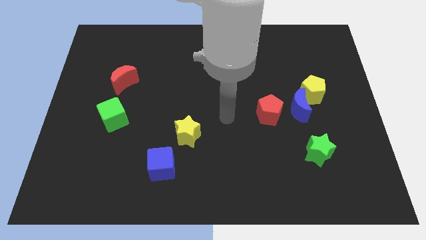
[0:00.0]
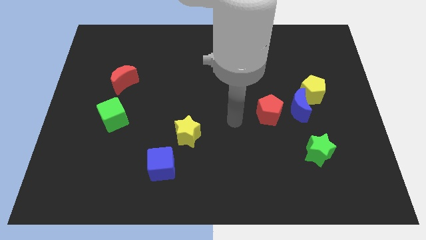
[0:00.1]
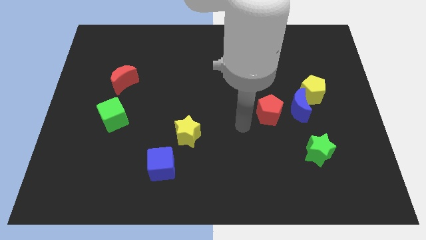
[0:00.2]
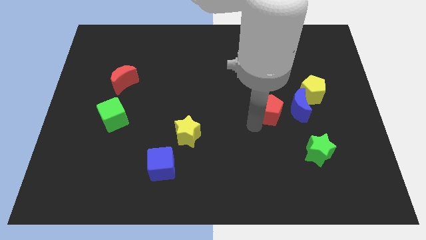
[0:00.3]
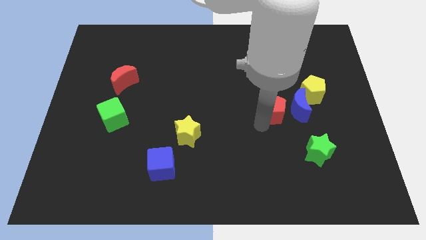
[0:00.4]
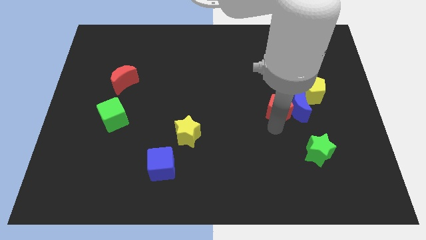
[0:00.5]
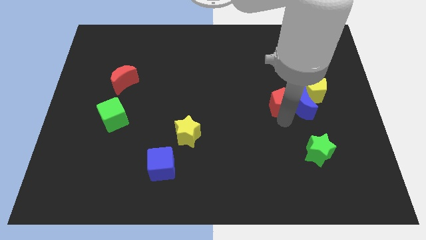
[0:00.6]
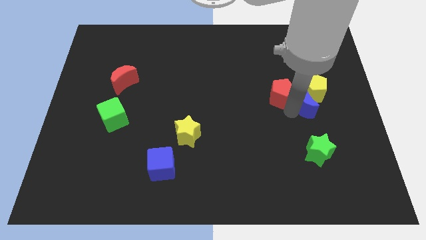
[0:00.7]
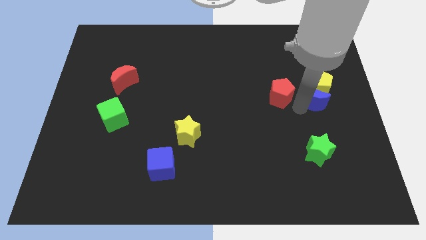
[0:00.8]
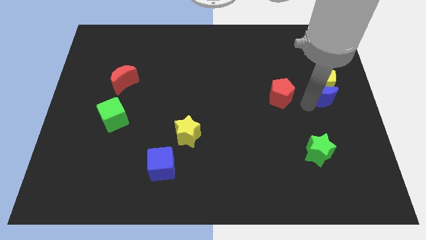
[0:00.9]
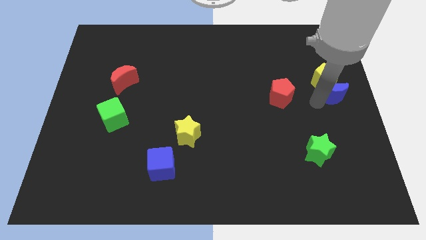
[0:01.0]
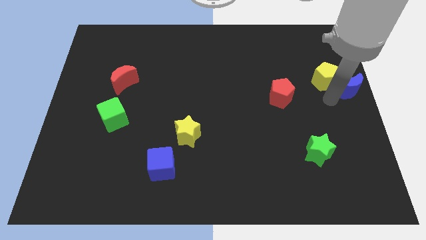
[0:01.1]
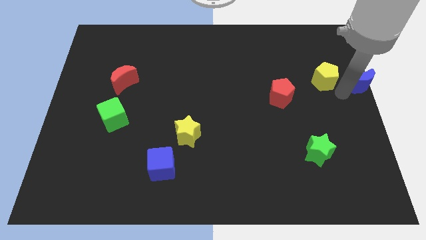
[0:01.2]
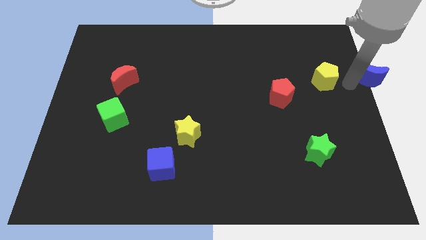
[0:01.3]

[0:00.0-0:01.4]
separate the yellow pentagon from the blue moon

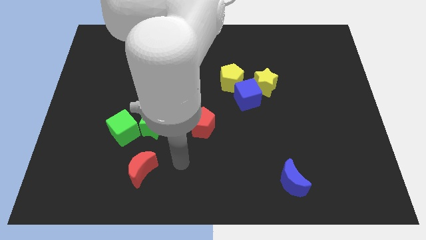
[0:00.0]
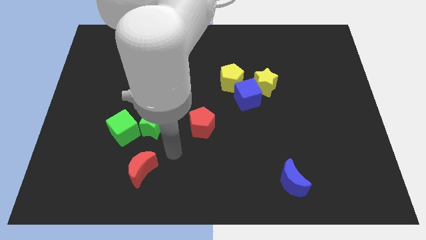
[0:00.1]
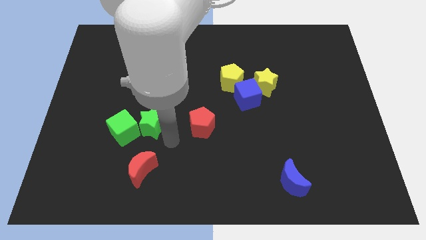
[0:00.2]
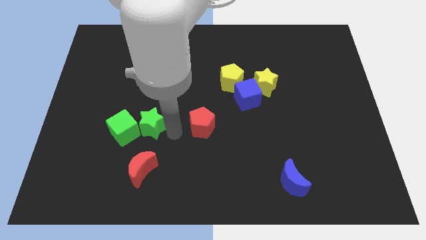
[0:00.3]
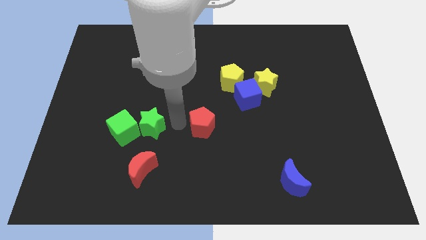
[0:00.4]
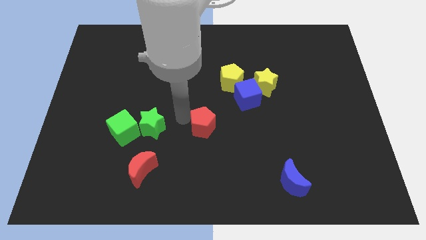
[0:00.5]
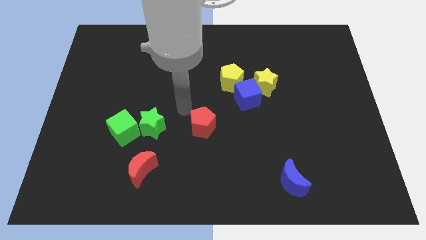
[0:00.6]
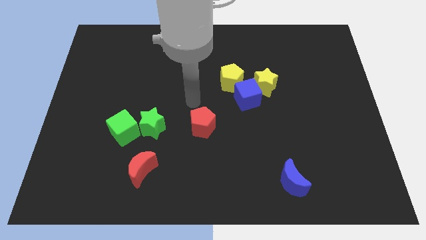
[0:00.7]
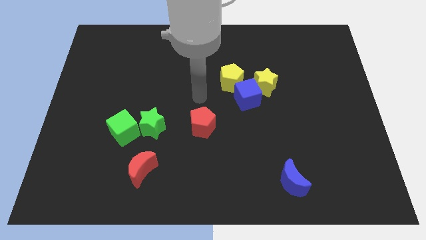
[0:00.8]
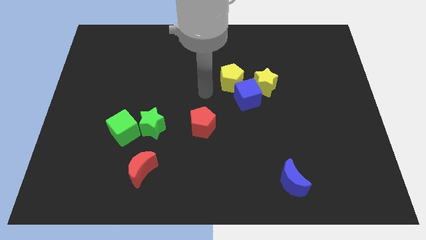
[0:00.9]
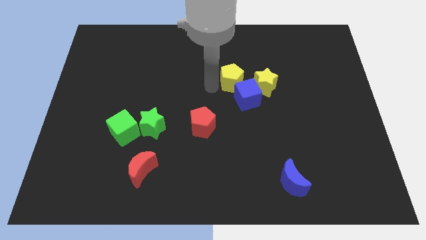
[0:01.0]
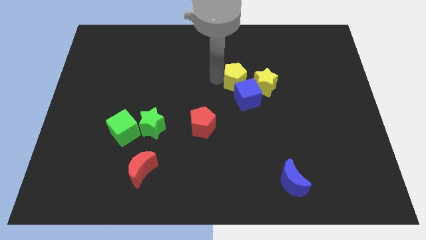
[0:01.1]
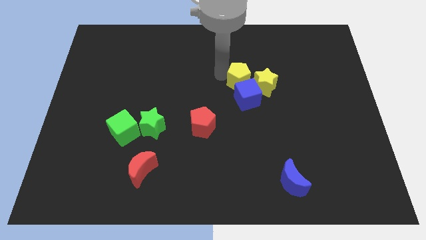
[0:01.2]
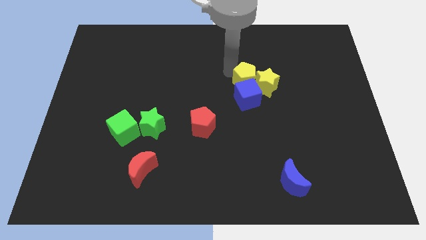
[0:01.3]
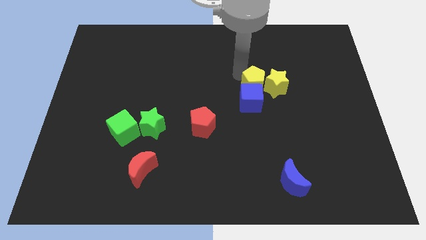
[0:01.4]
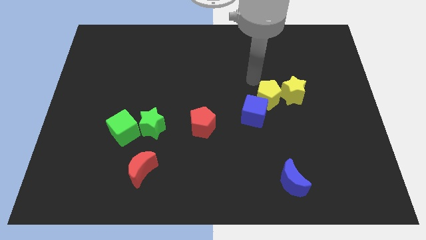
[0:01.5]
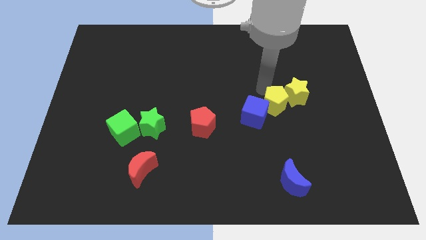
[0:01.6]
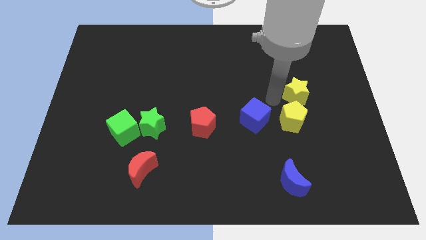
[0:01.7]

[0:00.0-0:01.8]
pull the blue cube apart from the yellow star and yellow pentagon

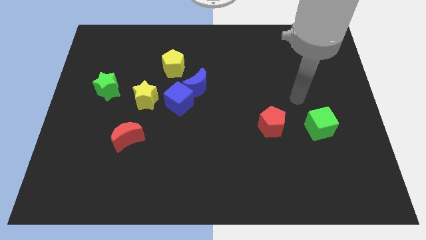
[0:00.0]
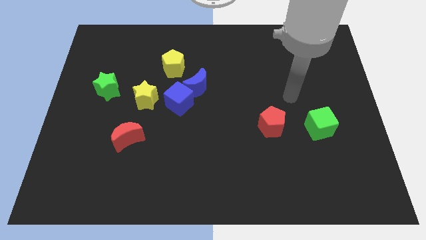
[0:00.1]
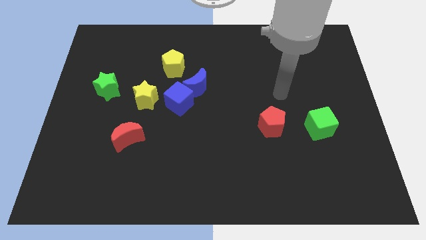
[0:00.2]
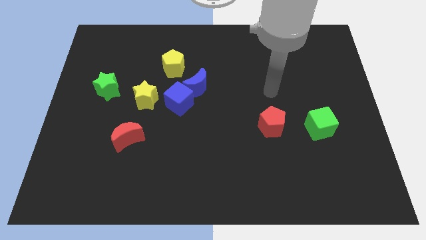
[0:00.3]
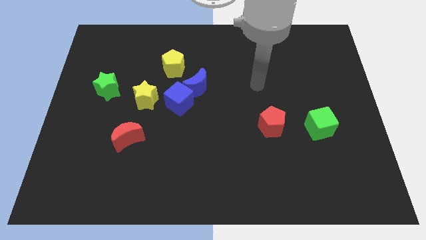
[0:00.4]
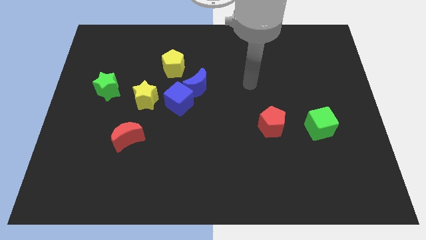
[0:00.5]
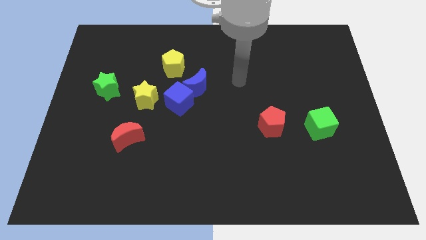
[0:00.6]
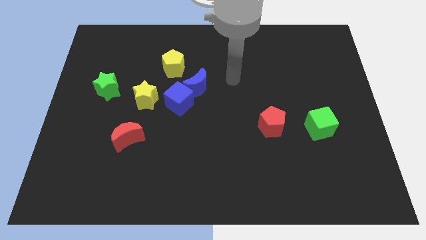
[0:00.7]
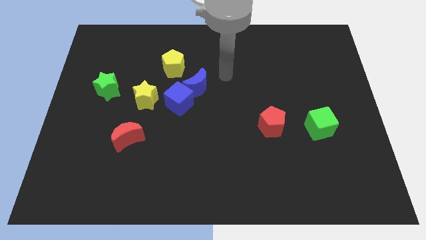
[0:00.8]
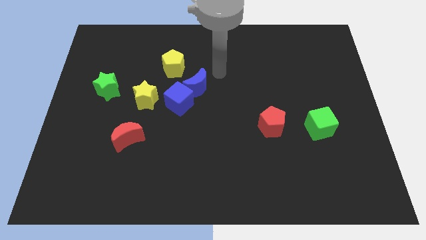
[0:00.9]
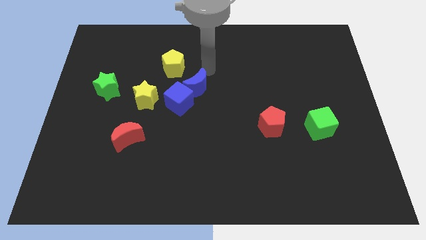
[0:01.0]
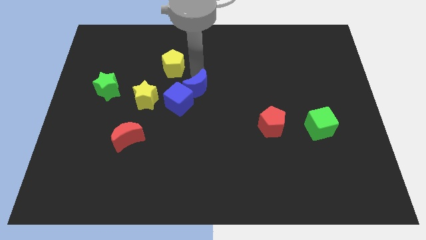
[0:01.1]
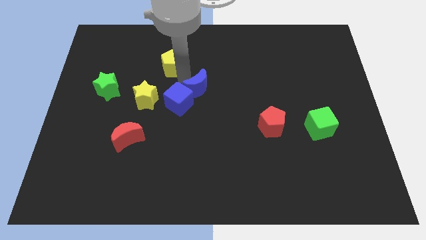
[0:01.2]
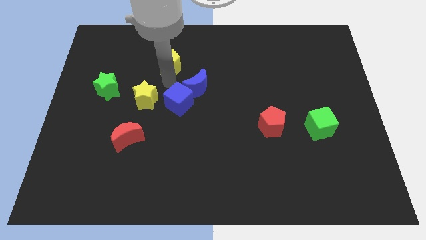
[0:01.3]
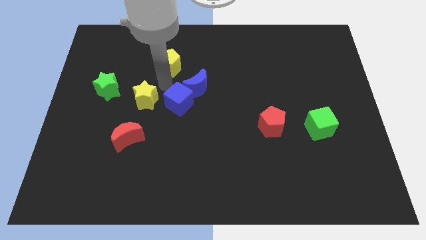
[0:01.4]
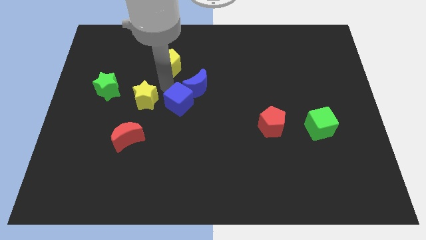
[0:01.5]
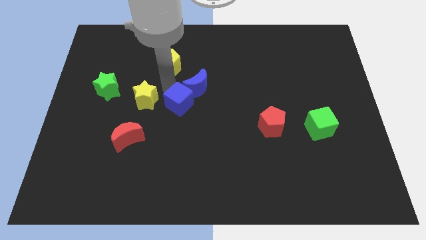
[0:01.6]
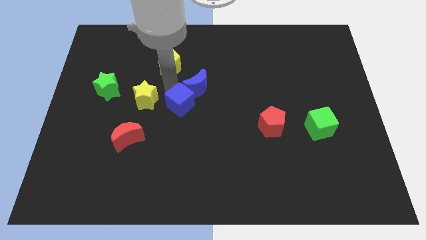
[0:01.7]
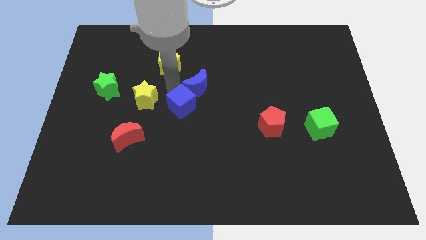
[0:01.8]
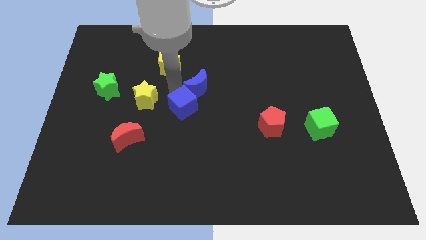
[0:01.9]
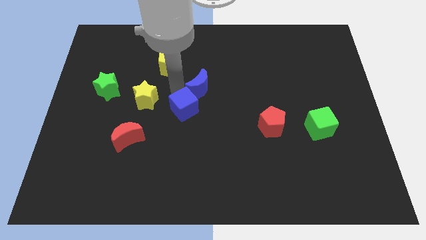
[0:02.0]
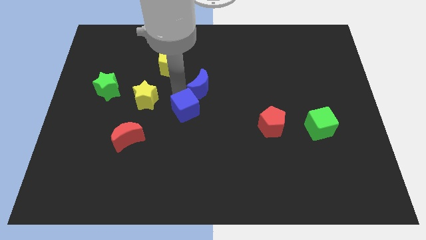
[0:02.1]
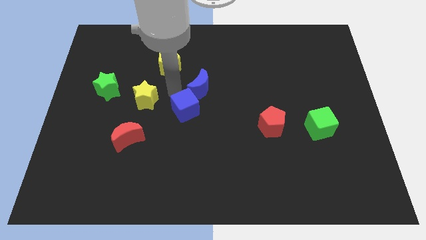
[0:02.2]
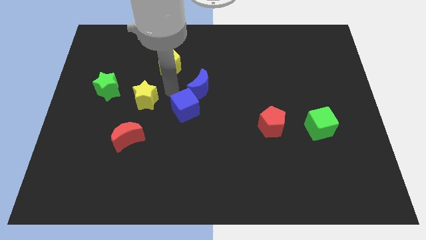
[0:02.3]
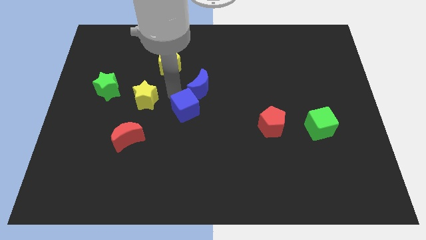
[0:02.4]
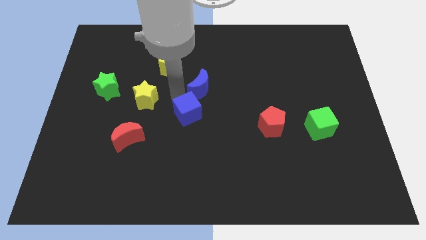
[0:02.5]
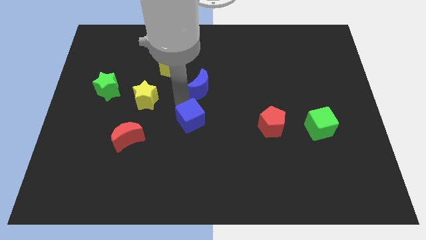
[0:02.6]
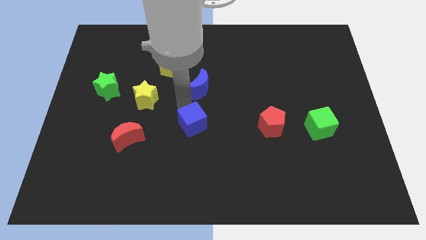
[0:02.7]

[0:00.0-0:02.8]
pull the blue cube apart from the blue moon and yellow star

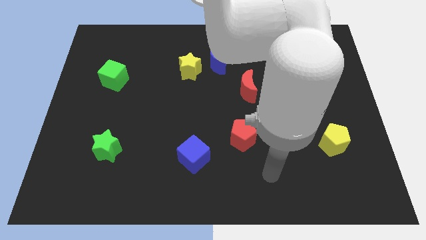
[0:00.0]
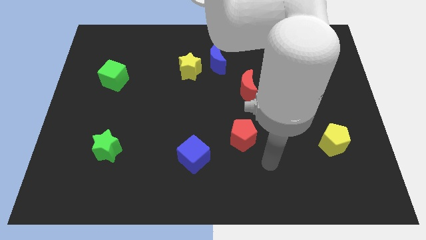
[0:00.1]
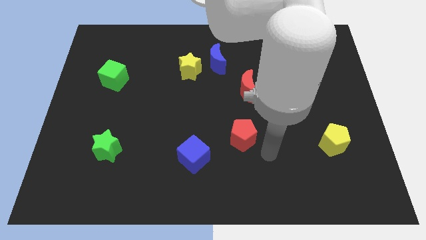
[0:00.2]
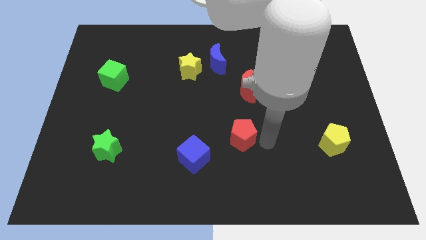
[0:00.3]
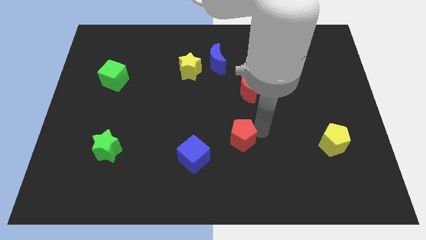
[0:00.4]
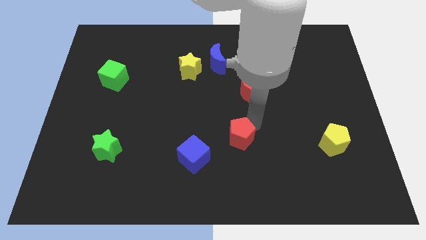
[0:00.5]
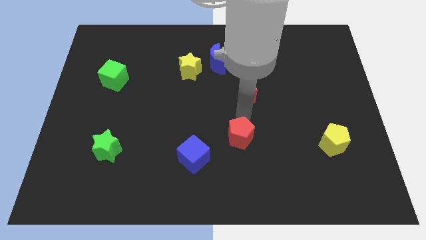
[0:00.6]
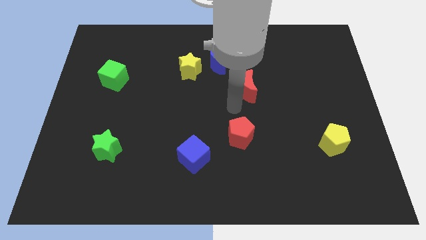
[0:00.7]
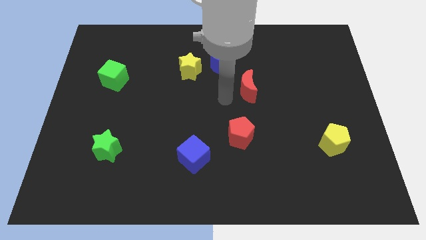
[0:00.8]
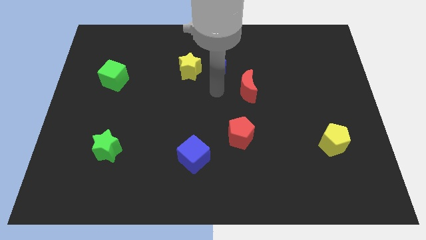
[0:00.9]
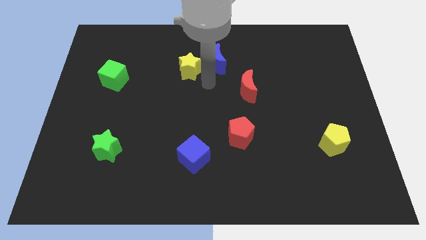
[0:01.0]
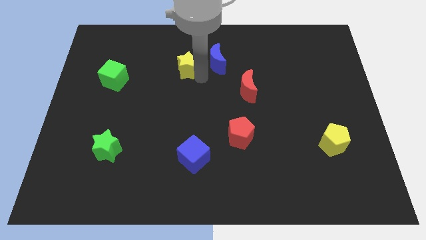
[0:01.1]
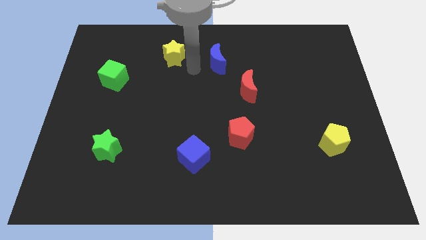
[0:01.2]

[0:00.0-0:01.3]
move the blue moon away from the yellow star

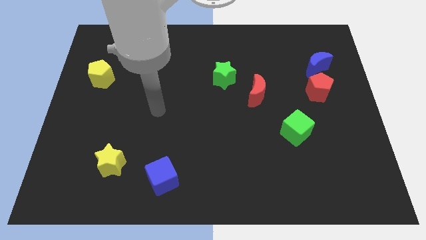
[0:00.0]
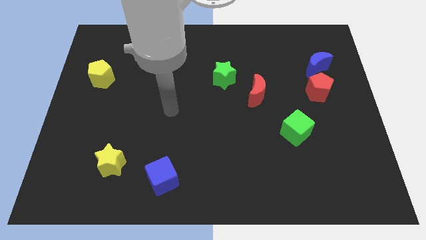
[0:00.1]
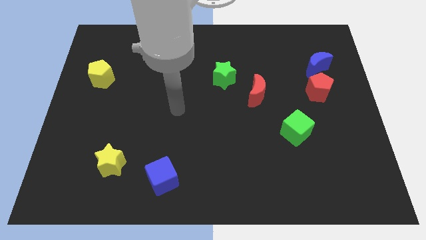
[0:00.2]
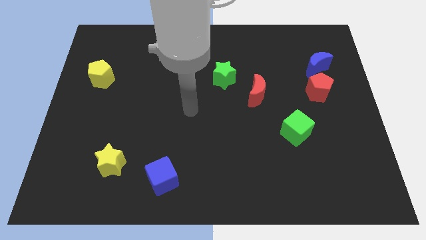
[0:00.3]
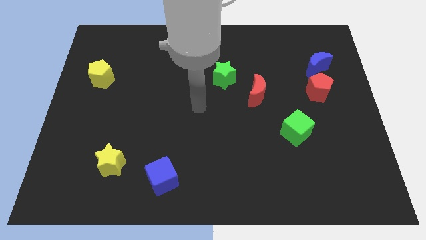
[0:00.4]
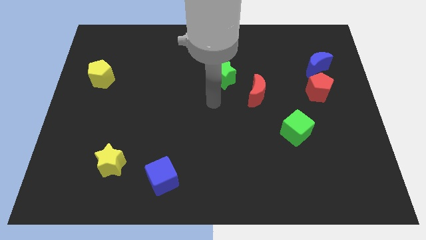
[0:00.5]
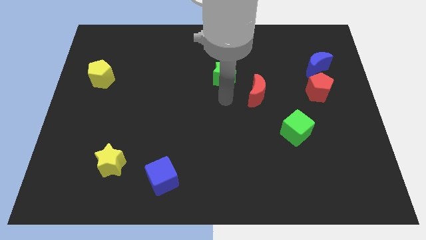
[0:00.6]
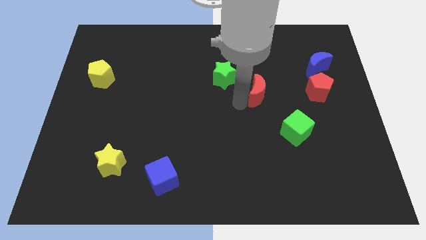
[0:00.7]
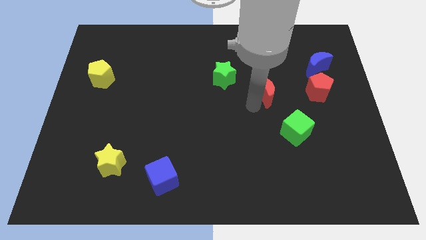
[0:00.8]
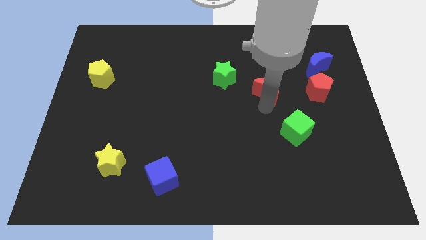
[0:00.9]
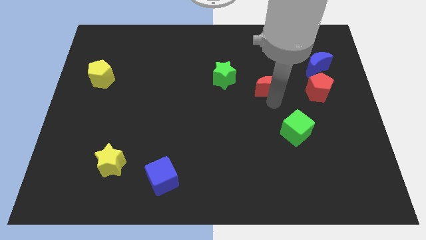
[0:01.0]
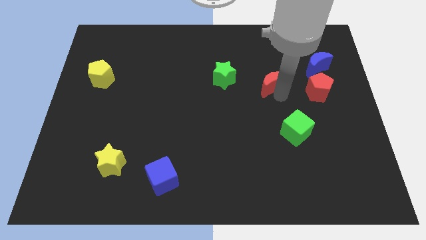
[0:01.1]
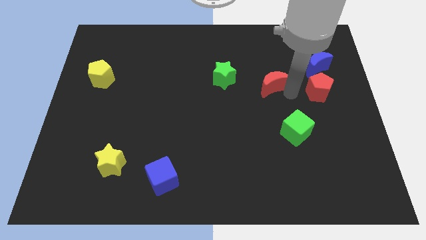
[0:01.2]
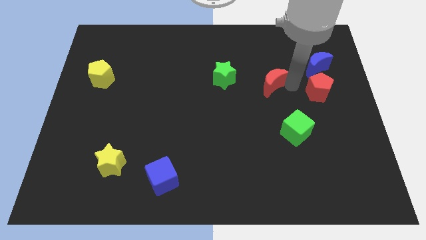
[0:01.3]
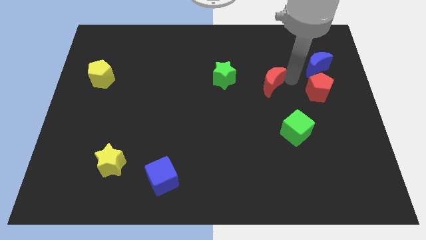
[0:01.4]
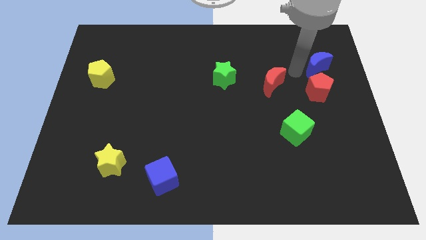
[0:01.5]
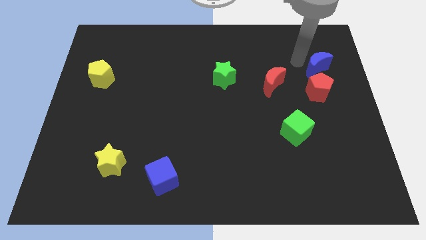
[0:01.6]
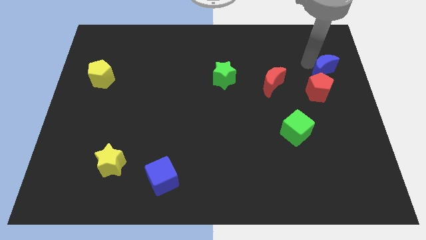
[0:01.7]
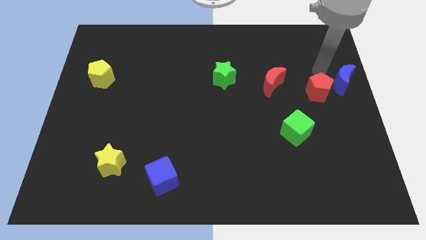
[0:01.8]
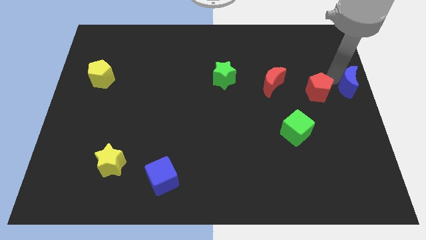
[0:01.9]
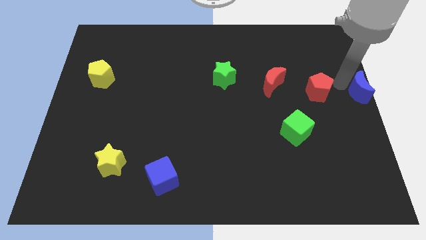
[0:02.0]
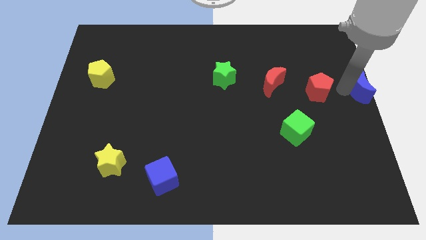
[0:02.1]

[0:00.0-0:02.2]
separate the red pentagon from the blue moon
